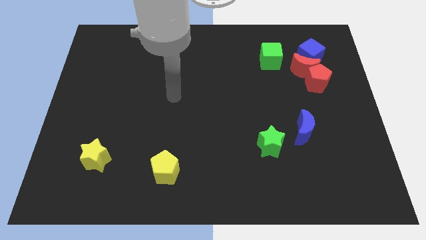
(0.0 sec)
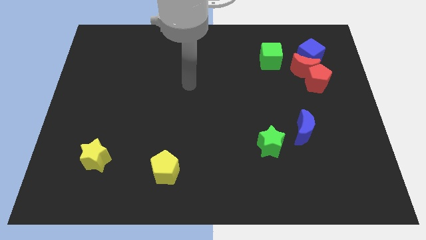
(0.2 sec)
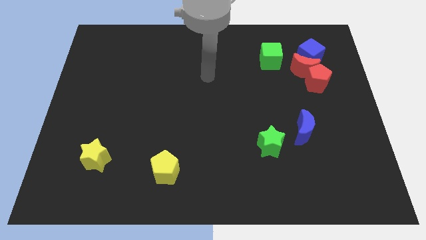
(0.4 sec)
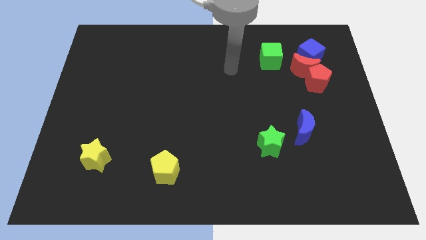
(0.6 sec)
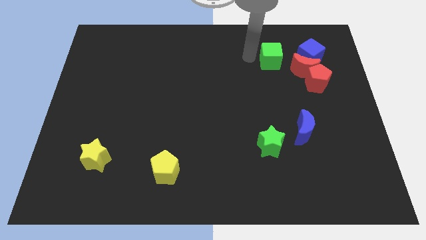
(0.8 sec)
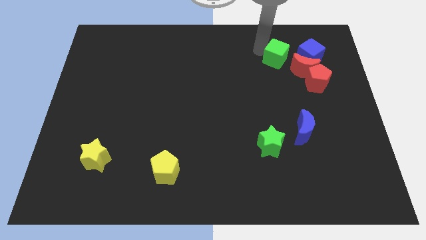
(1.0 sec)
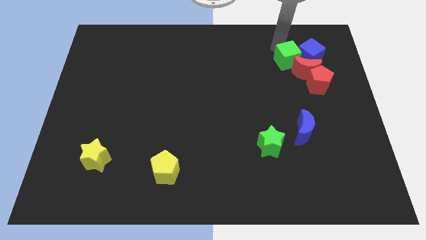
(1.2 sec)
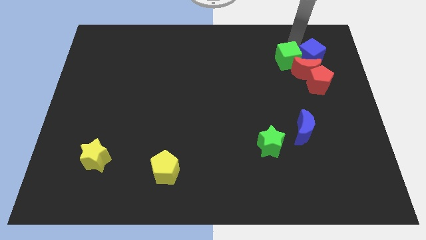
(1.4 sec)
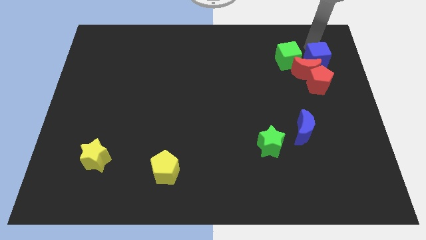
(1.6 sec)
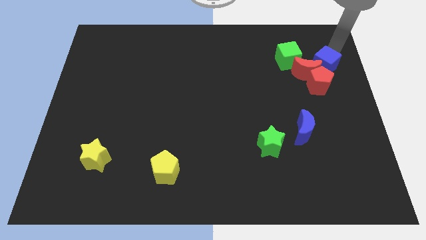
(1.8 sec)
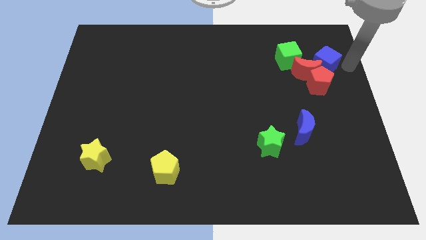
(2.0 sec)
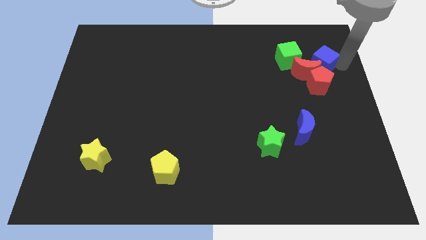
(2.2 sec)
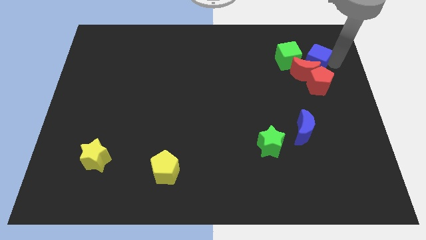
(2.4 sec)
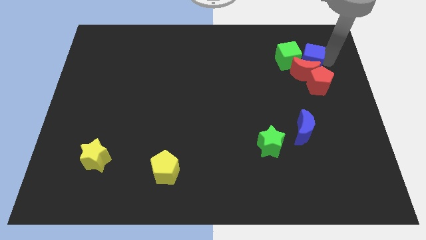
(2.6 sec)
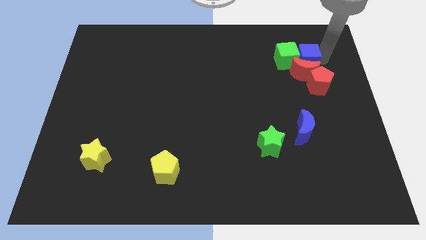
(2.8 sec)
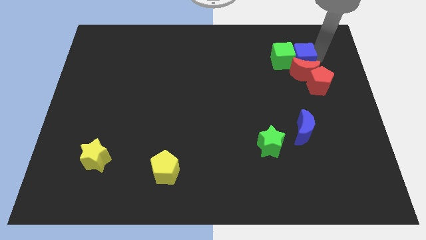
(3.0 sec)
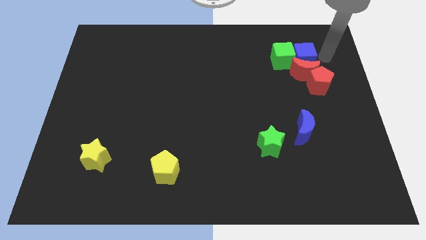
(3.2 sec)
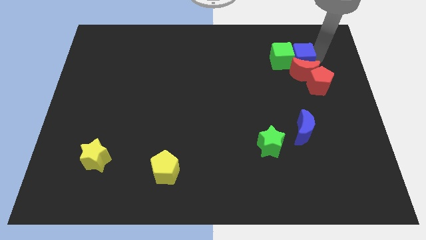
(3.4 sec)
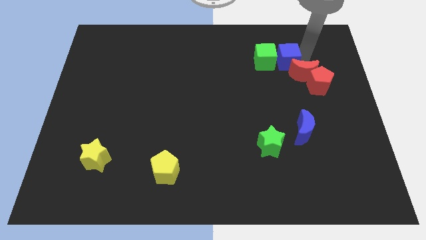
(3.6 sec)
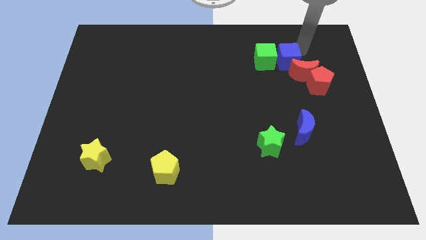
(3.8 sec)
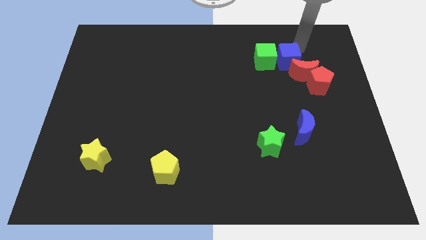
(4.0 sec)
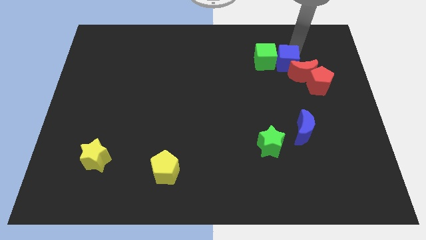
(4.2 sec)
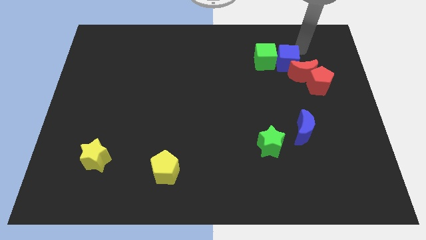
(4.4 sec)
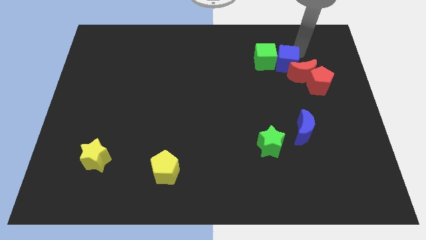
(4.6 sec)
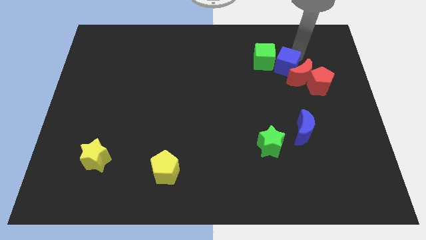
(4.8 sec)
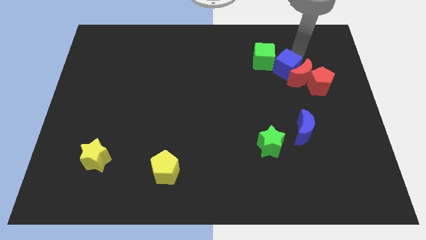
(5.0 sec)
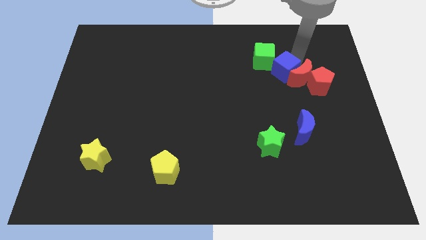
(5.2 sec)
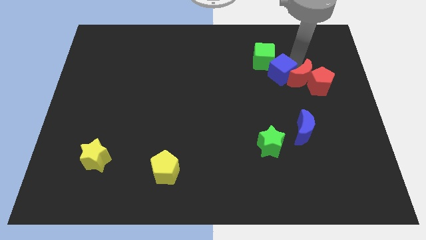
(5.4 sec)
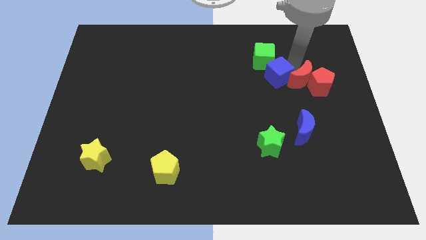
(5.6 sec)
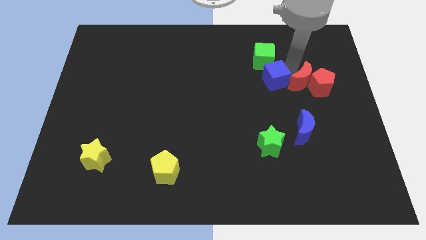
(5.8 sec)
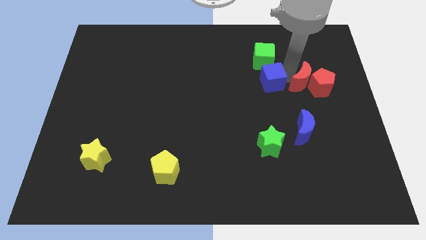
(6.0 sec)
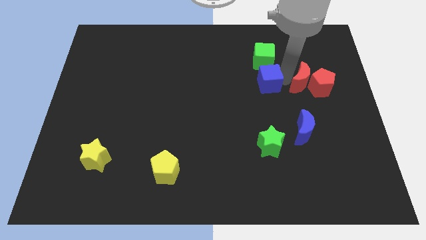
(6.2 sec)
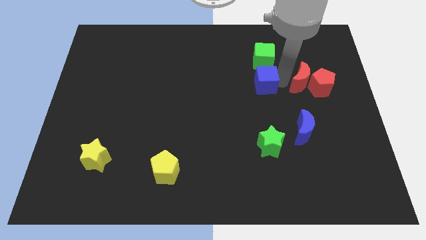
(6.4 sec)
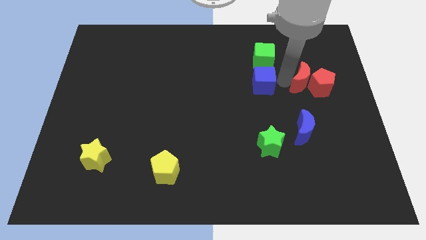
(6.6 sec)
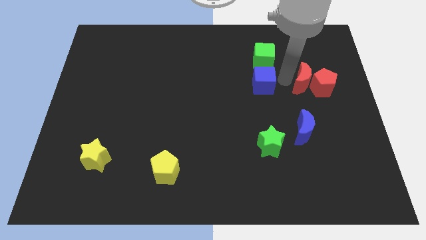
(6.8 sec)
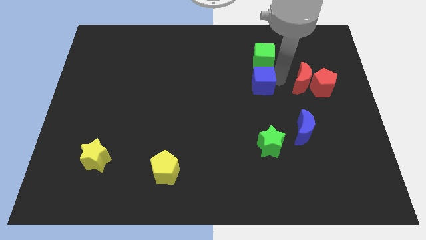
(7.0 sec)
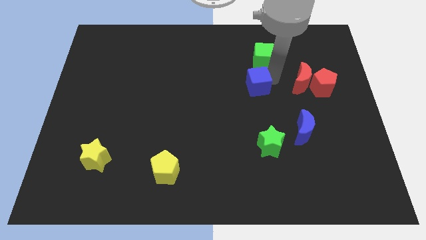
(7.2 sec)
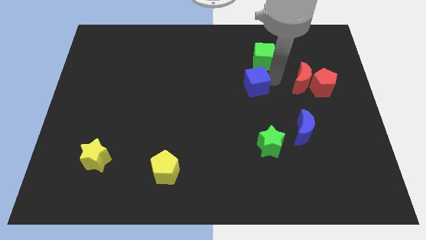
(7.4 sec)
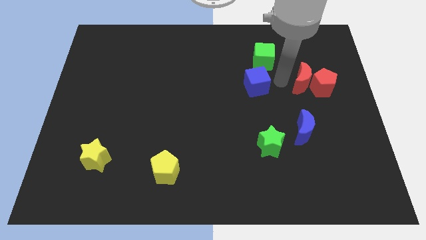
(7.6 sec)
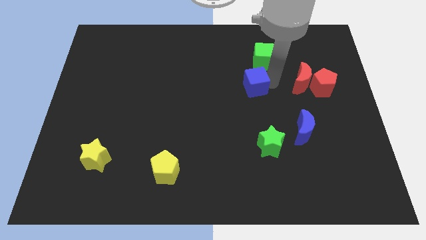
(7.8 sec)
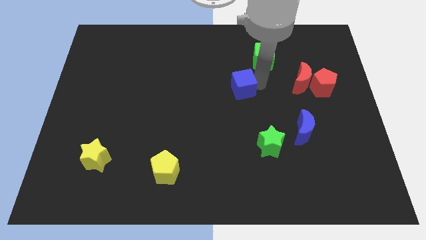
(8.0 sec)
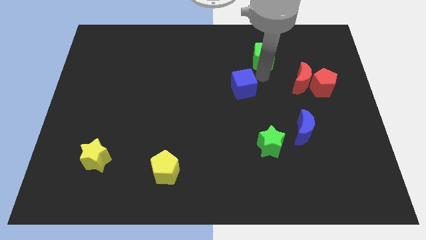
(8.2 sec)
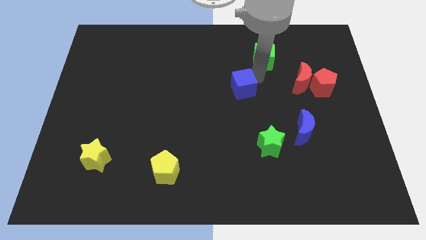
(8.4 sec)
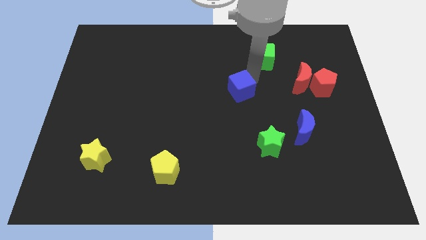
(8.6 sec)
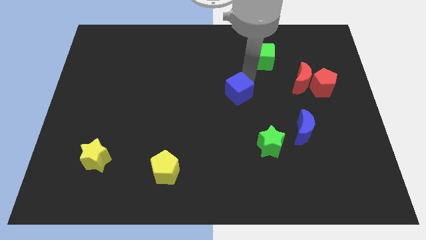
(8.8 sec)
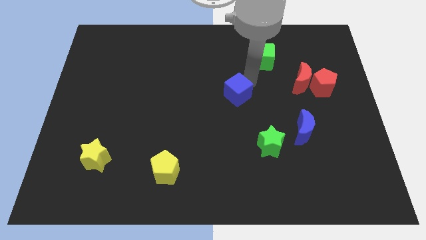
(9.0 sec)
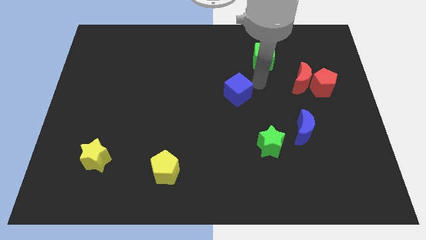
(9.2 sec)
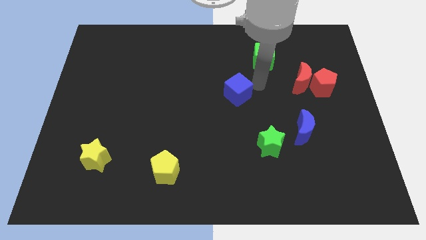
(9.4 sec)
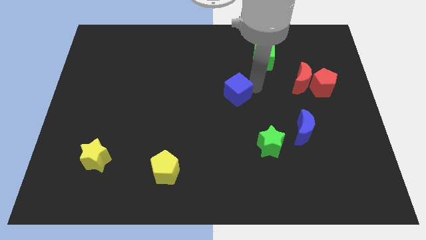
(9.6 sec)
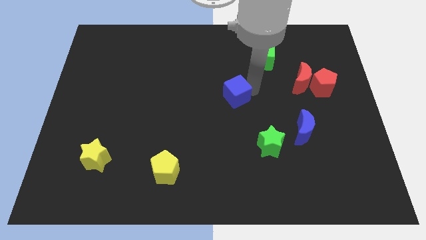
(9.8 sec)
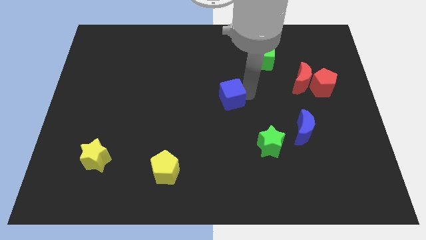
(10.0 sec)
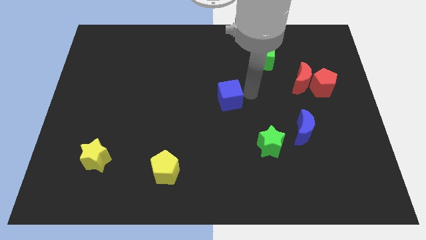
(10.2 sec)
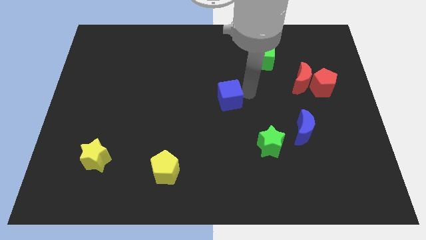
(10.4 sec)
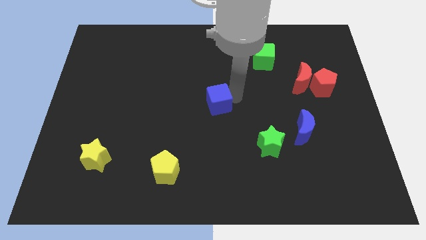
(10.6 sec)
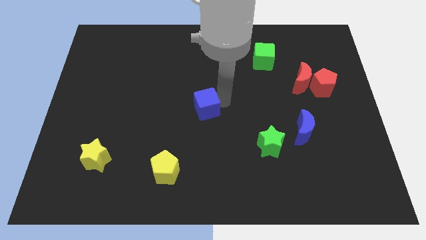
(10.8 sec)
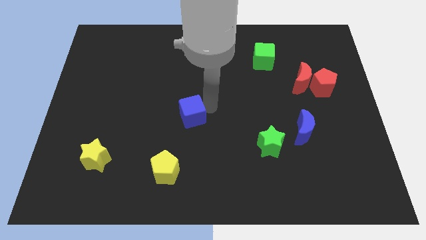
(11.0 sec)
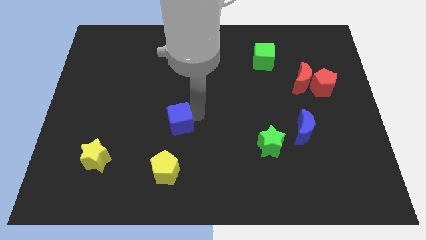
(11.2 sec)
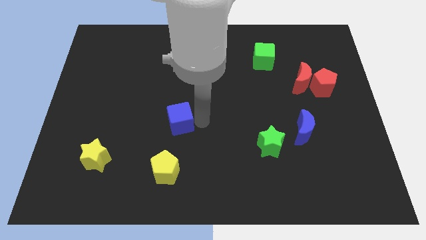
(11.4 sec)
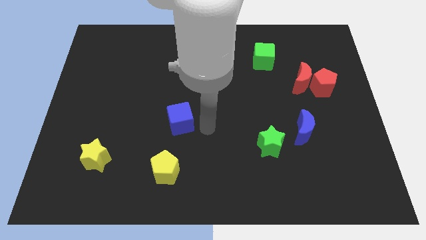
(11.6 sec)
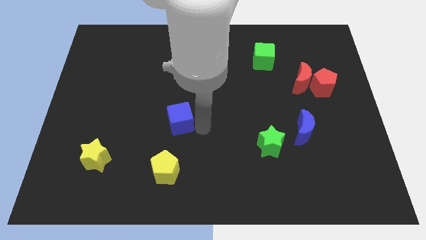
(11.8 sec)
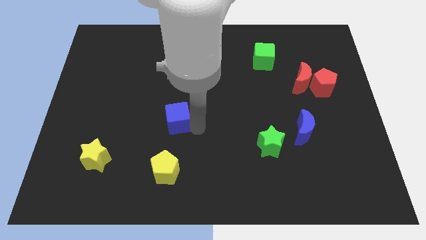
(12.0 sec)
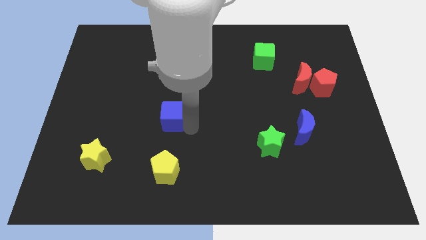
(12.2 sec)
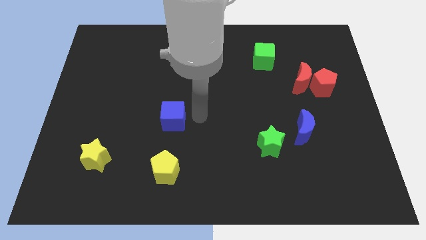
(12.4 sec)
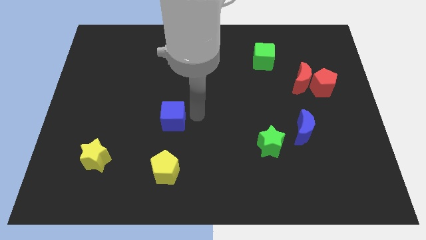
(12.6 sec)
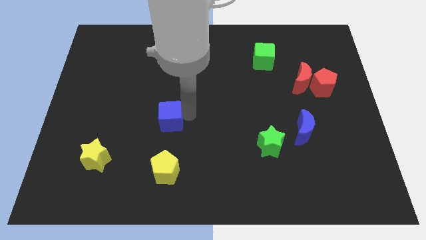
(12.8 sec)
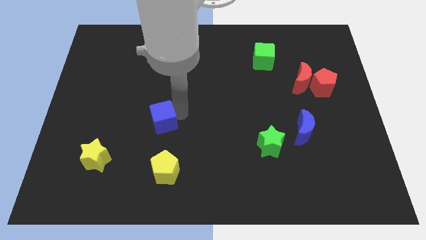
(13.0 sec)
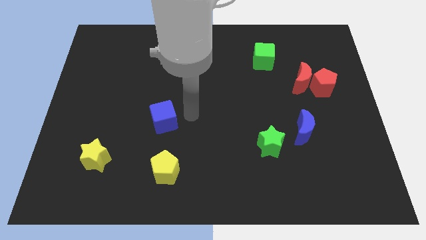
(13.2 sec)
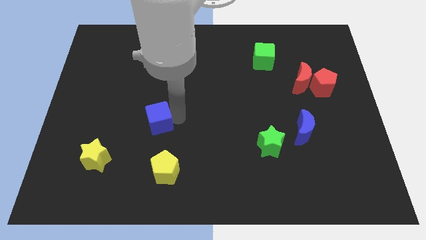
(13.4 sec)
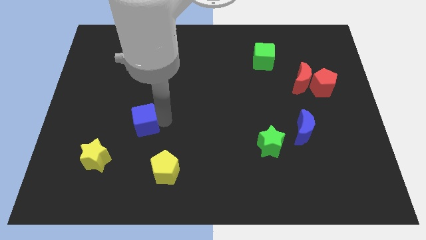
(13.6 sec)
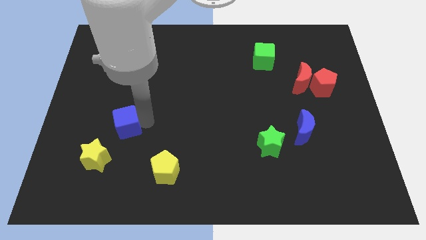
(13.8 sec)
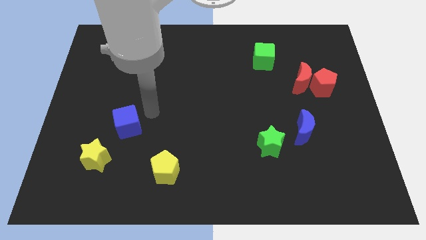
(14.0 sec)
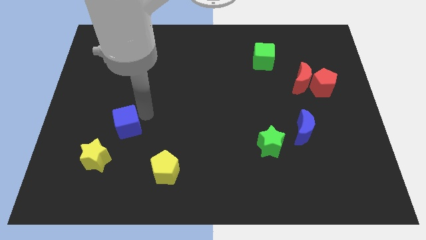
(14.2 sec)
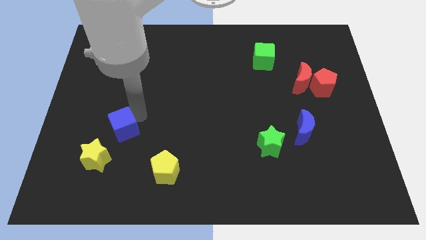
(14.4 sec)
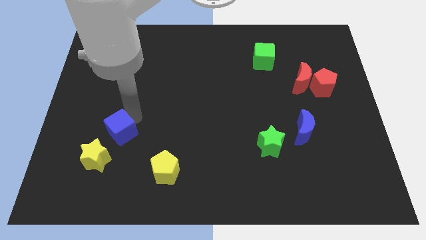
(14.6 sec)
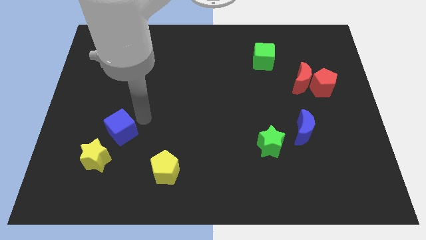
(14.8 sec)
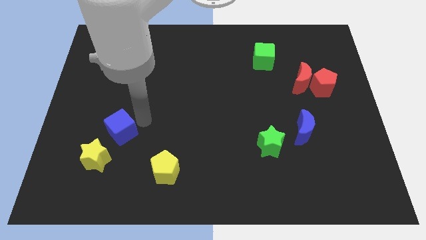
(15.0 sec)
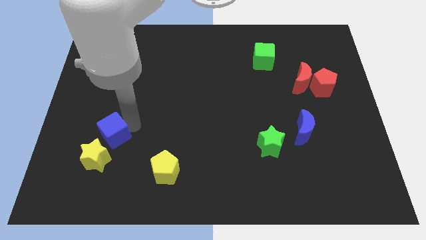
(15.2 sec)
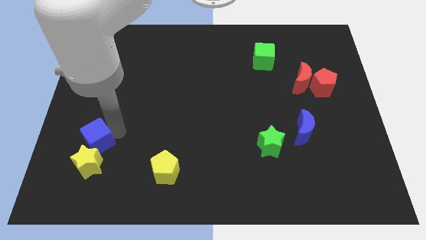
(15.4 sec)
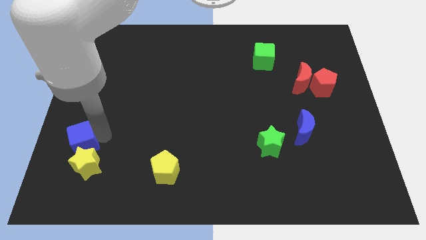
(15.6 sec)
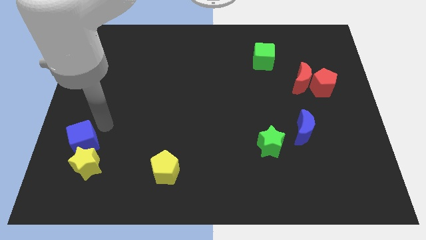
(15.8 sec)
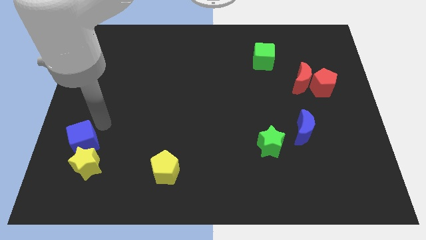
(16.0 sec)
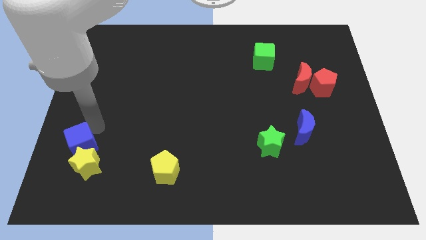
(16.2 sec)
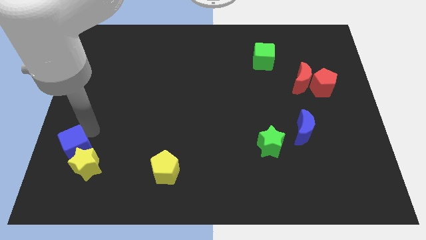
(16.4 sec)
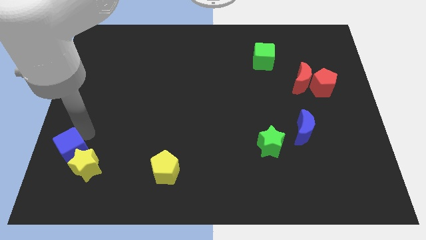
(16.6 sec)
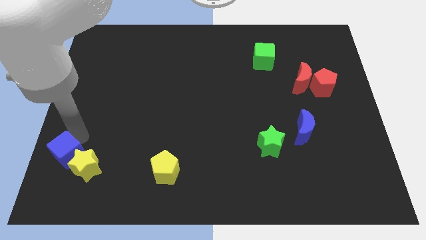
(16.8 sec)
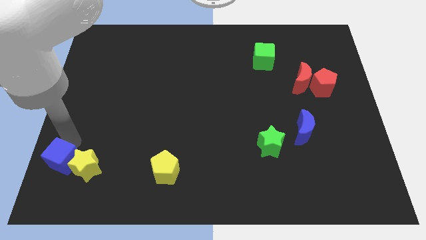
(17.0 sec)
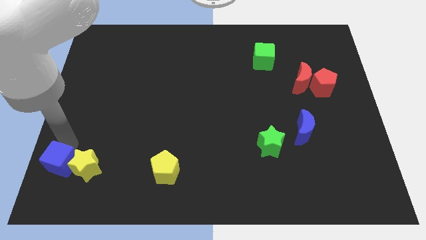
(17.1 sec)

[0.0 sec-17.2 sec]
move the blue cube to the bottom left corner
